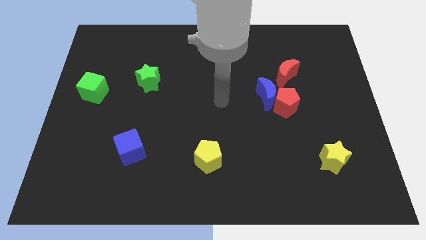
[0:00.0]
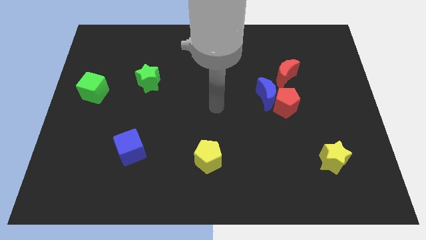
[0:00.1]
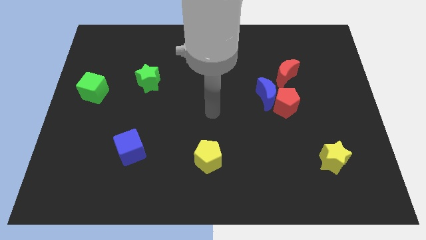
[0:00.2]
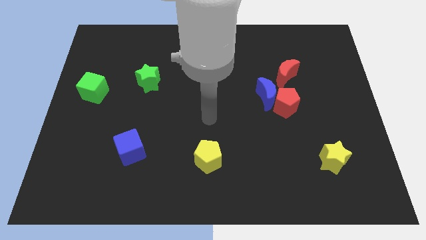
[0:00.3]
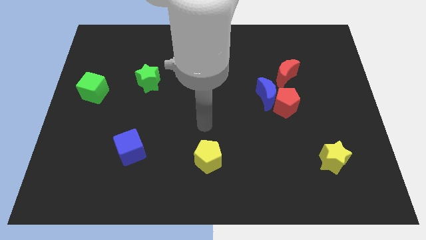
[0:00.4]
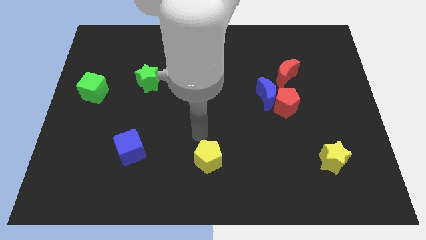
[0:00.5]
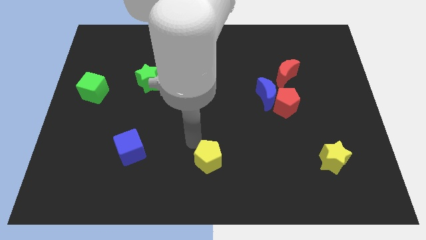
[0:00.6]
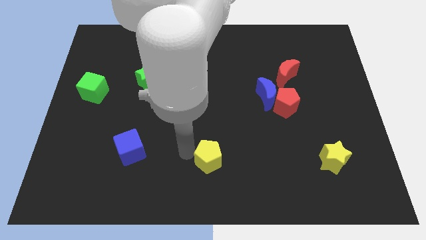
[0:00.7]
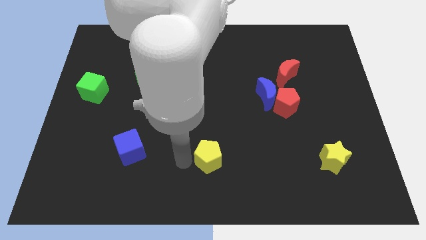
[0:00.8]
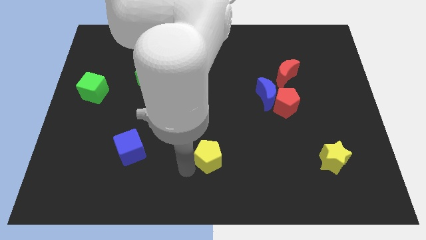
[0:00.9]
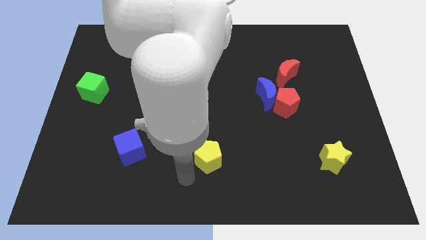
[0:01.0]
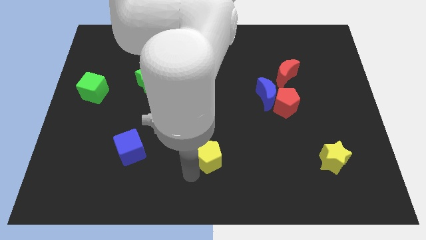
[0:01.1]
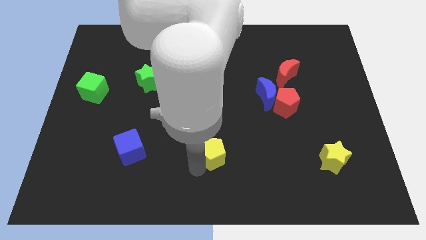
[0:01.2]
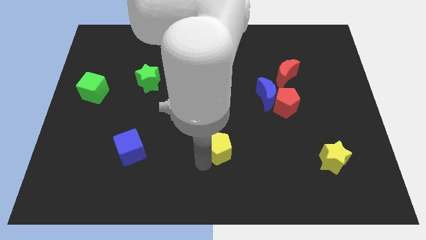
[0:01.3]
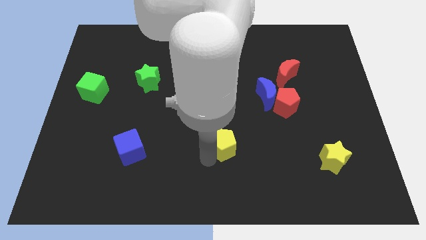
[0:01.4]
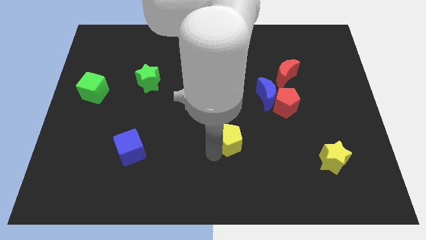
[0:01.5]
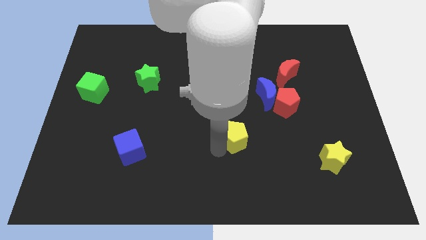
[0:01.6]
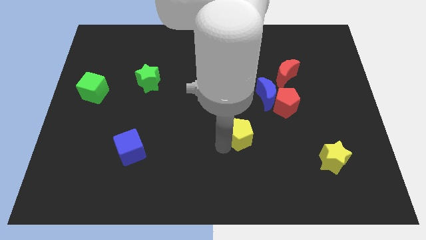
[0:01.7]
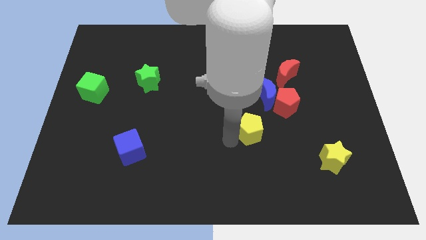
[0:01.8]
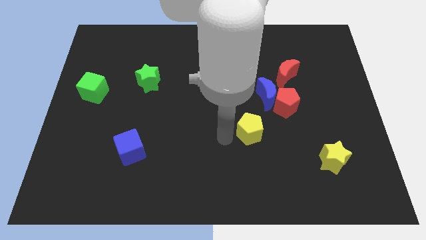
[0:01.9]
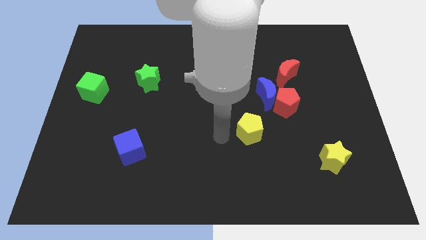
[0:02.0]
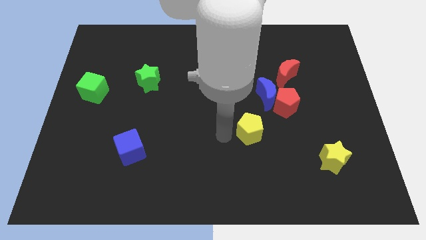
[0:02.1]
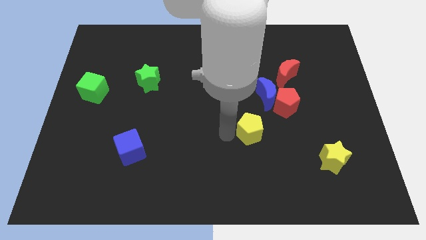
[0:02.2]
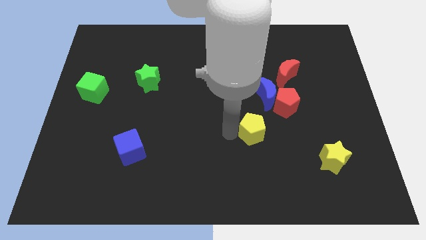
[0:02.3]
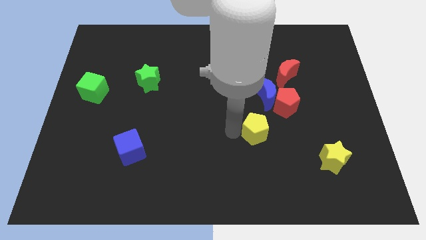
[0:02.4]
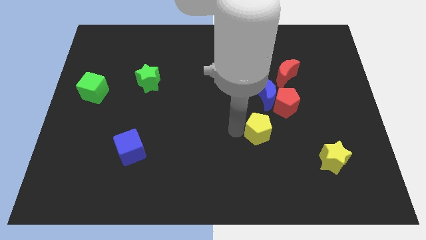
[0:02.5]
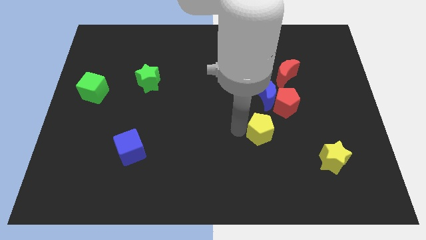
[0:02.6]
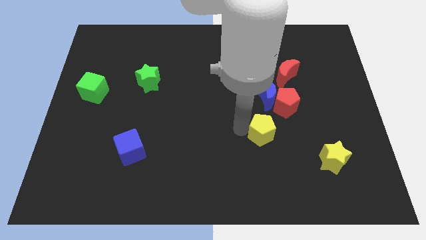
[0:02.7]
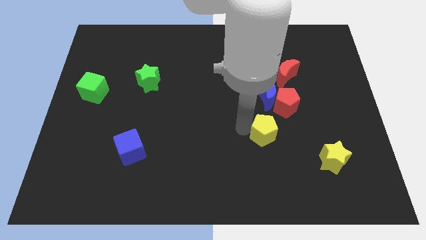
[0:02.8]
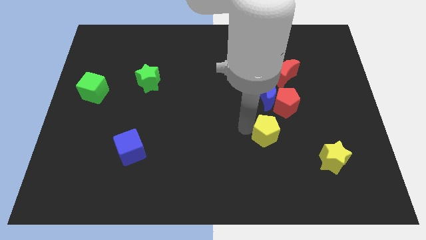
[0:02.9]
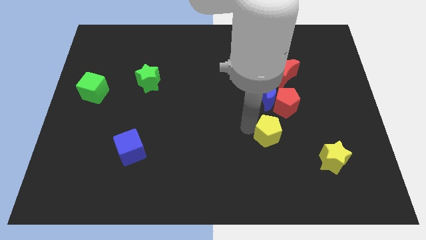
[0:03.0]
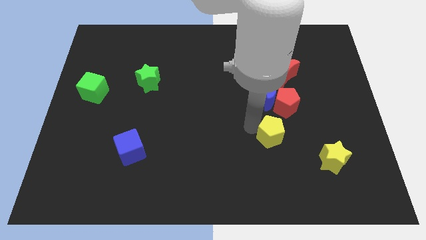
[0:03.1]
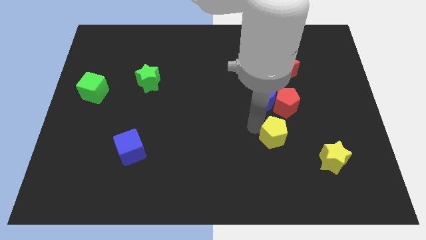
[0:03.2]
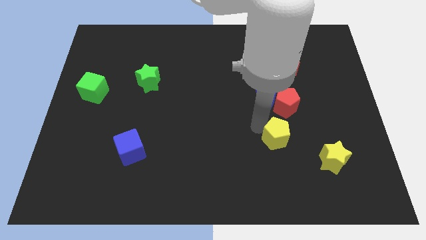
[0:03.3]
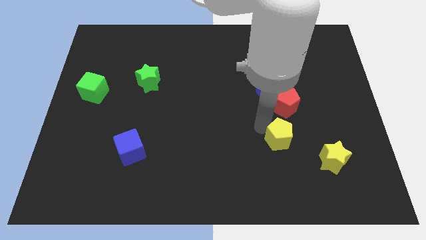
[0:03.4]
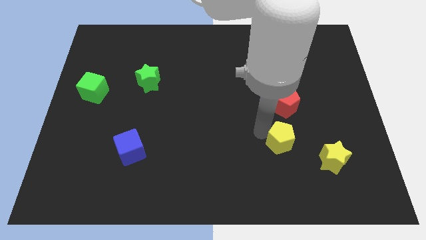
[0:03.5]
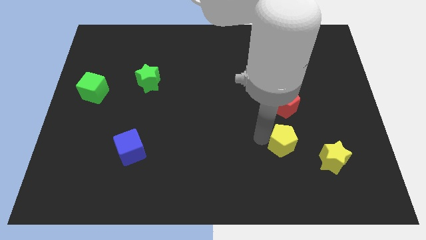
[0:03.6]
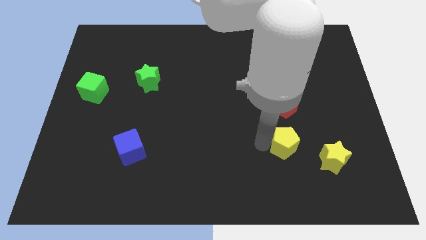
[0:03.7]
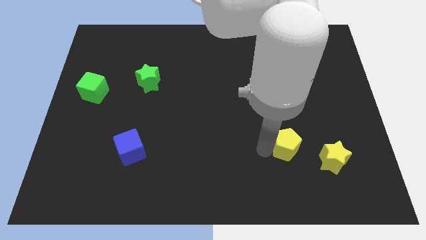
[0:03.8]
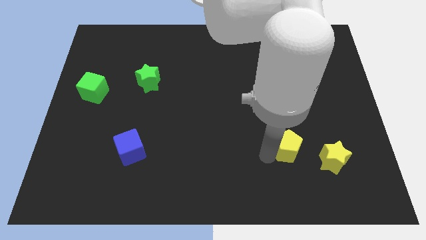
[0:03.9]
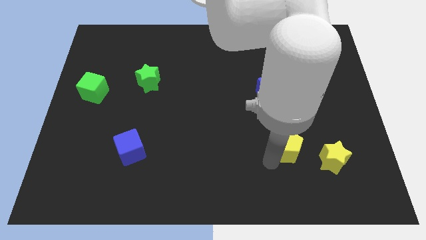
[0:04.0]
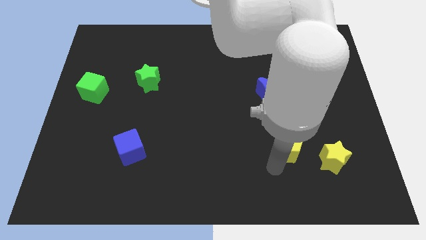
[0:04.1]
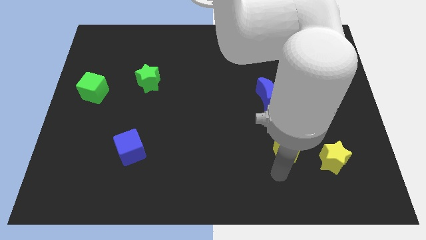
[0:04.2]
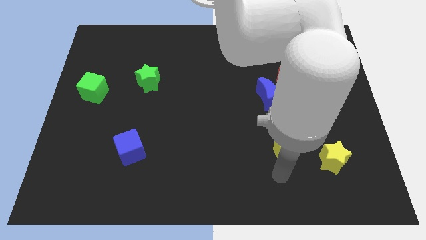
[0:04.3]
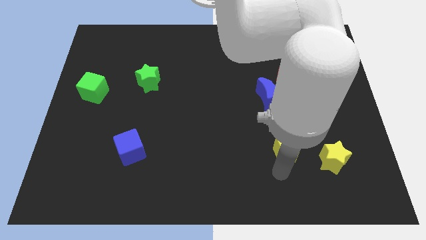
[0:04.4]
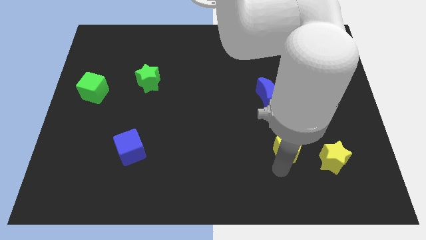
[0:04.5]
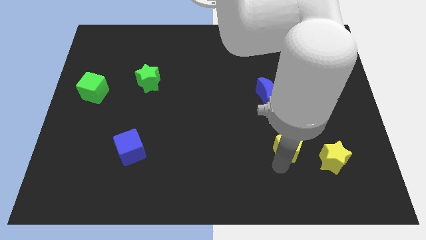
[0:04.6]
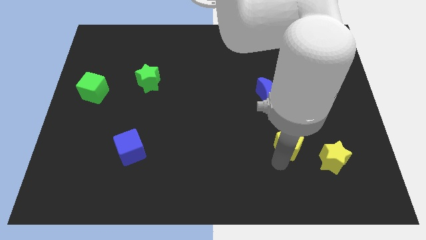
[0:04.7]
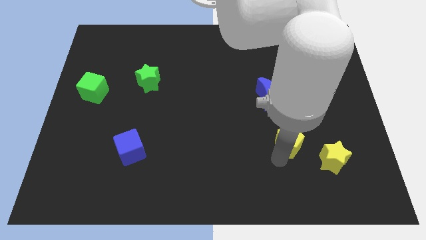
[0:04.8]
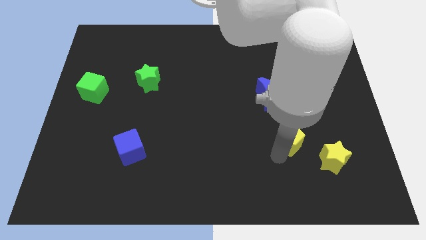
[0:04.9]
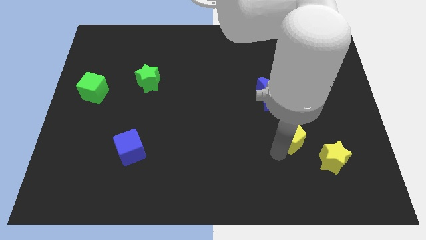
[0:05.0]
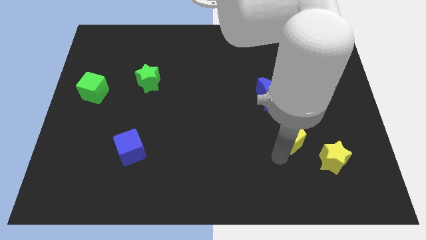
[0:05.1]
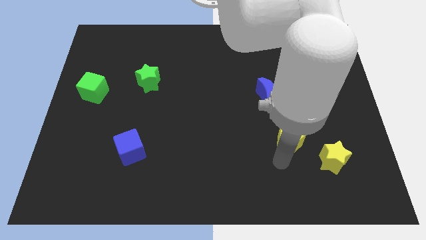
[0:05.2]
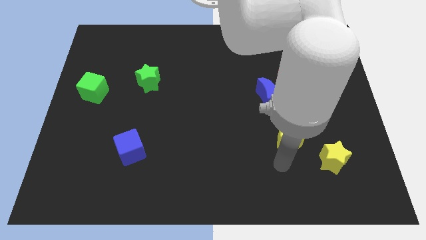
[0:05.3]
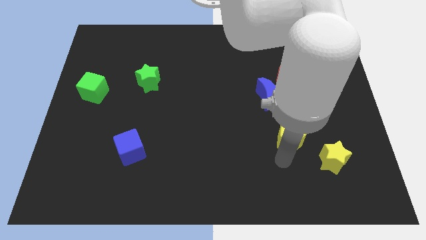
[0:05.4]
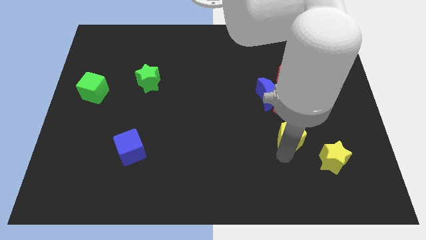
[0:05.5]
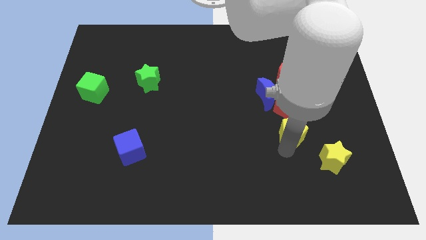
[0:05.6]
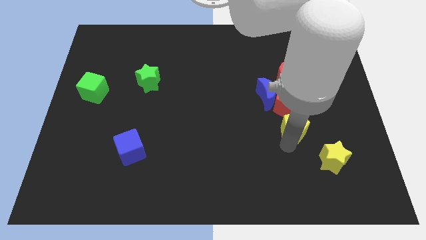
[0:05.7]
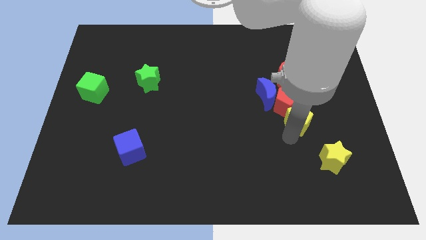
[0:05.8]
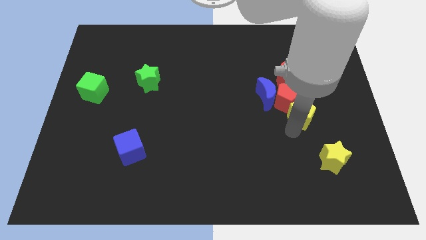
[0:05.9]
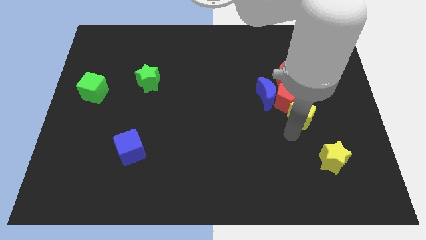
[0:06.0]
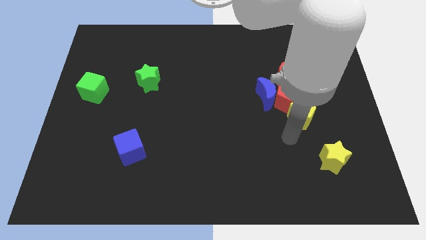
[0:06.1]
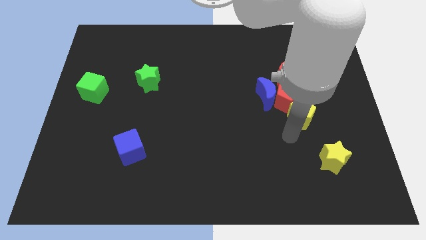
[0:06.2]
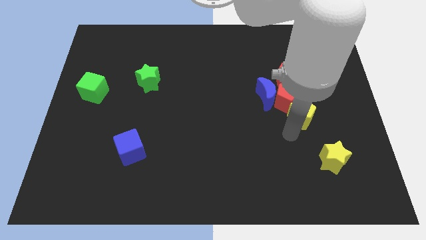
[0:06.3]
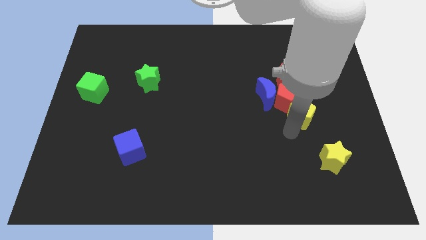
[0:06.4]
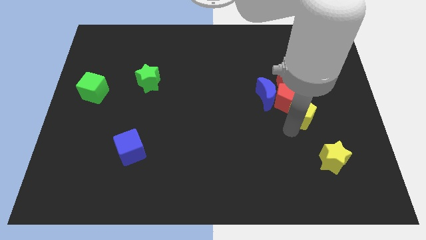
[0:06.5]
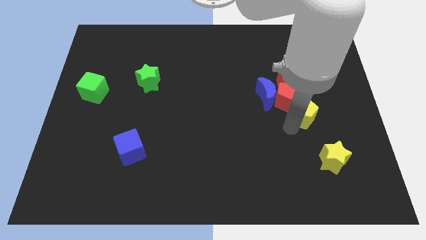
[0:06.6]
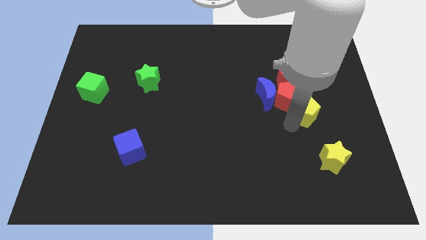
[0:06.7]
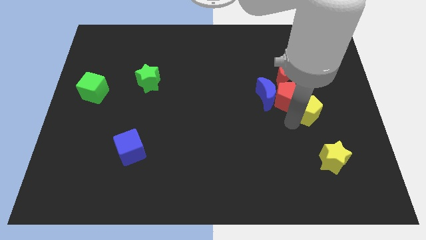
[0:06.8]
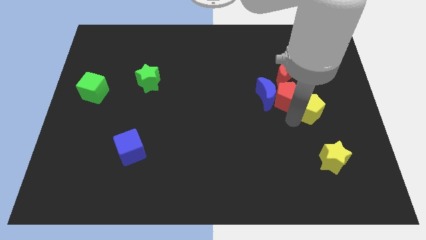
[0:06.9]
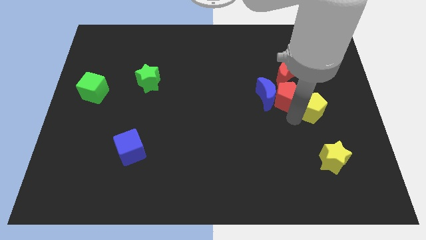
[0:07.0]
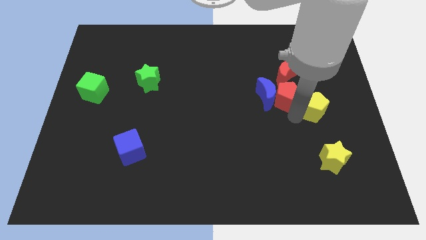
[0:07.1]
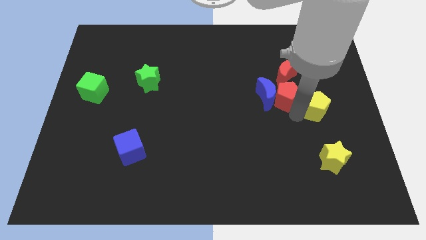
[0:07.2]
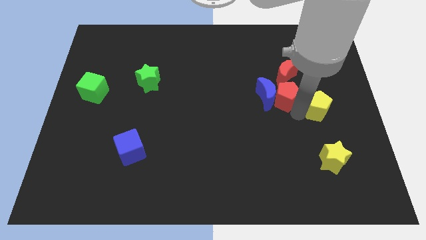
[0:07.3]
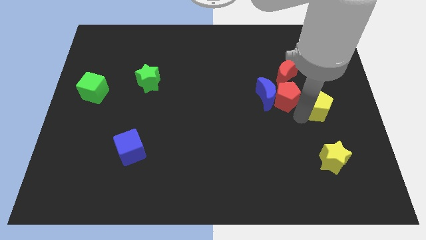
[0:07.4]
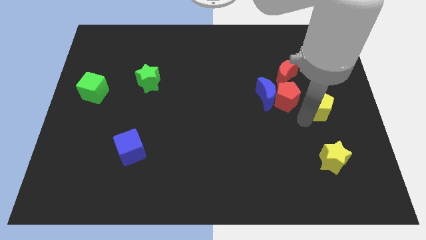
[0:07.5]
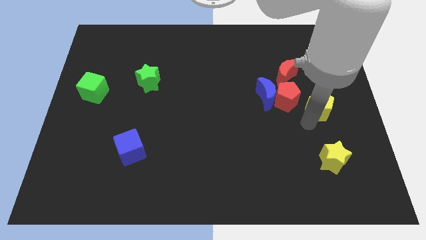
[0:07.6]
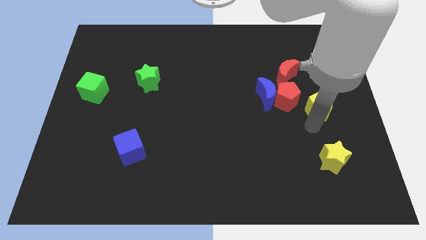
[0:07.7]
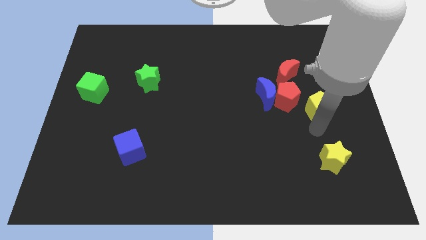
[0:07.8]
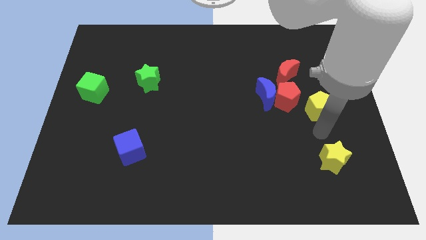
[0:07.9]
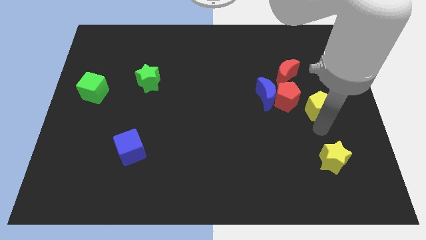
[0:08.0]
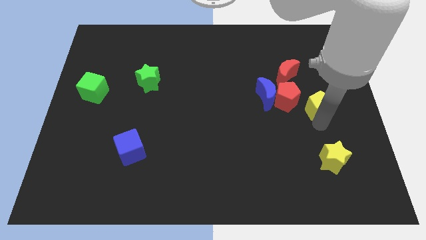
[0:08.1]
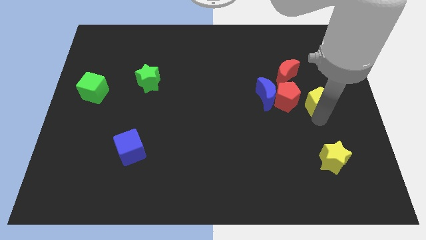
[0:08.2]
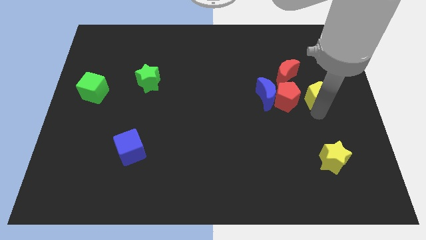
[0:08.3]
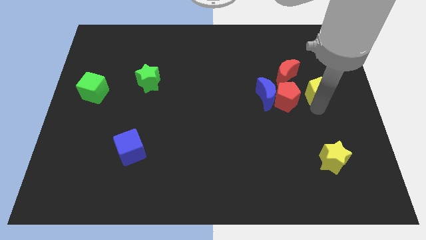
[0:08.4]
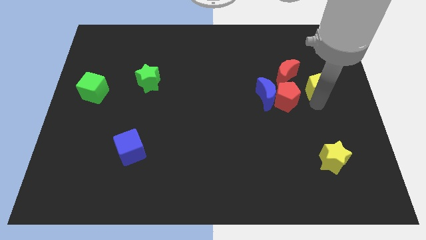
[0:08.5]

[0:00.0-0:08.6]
put the yellow pentagon to the right of the red moon
